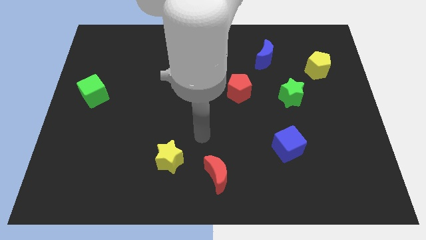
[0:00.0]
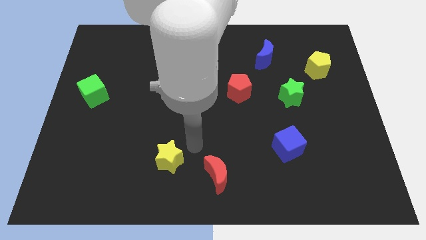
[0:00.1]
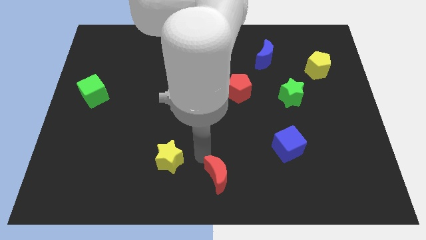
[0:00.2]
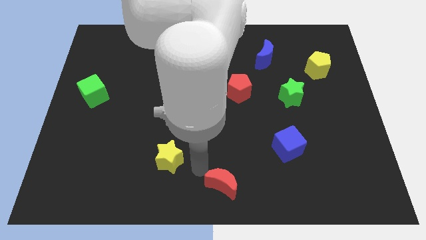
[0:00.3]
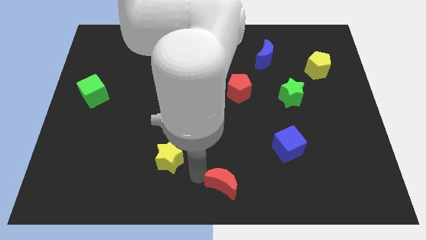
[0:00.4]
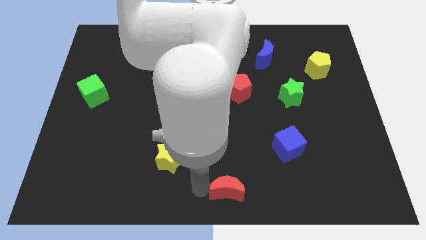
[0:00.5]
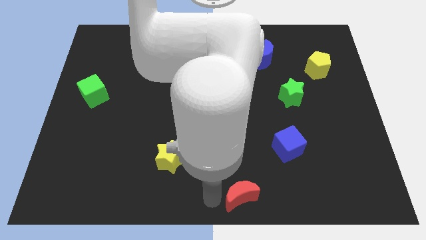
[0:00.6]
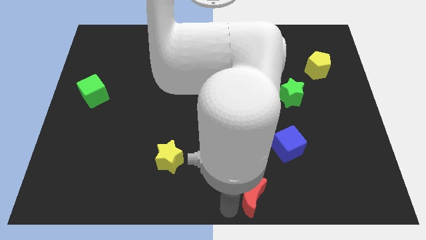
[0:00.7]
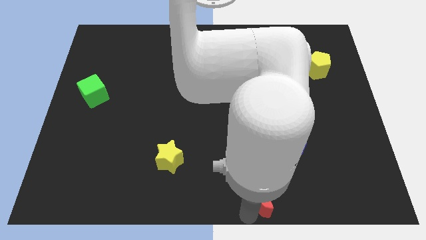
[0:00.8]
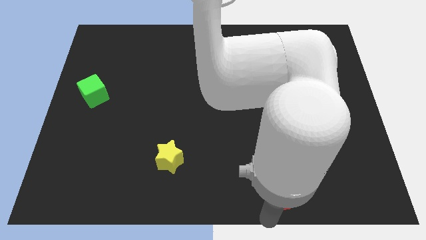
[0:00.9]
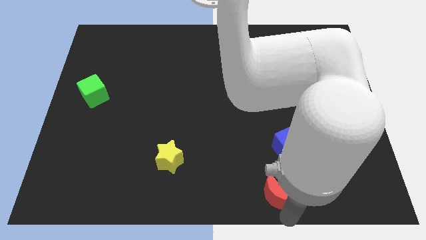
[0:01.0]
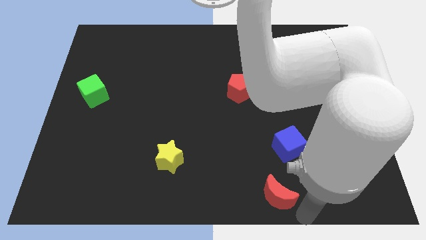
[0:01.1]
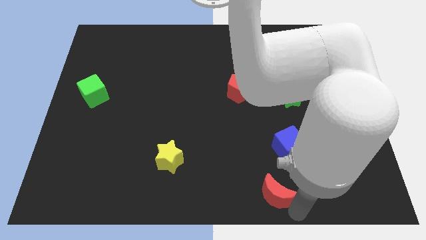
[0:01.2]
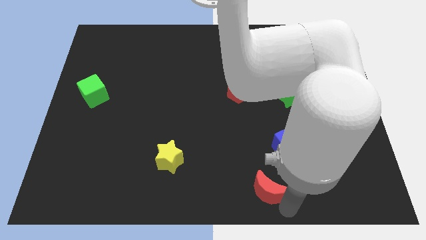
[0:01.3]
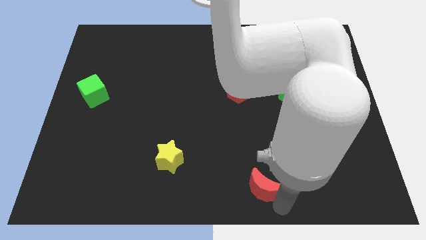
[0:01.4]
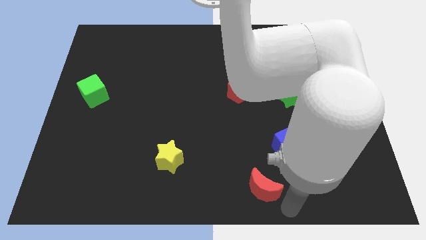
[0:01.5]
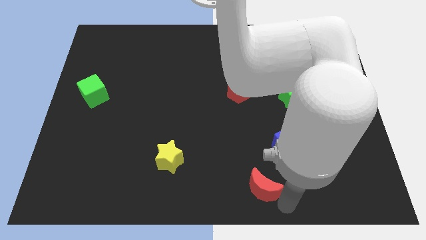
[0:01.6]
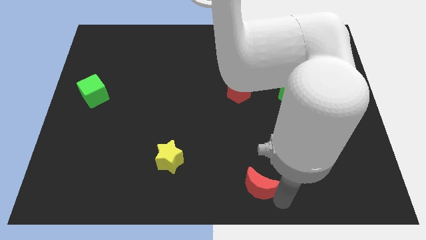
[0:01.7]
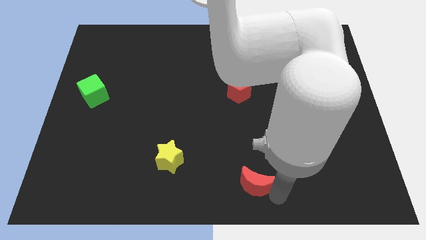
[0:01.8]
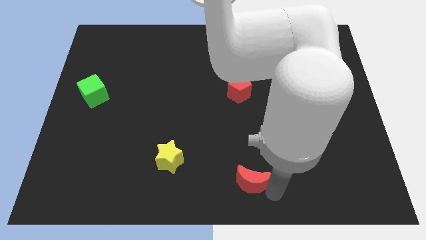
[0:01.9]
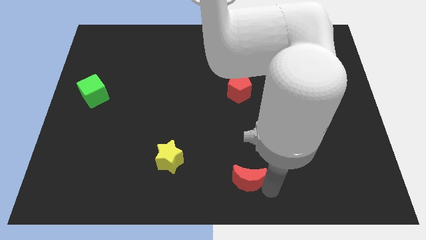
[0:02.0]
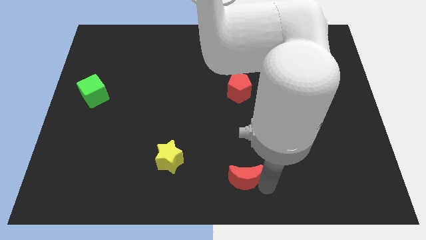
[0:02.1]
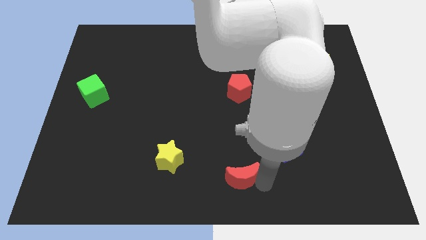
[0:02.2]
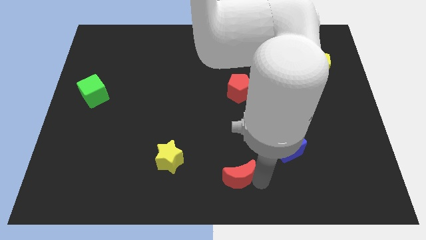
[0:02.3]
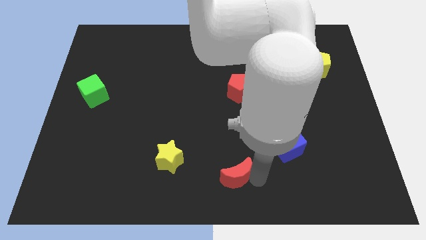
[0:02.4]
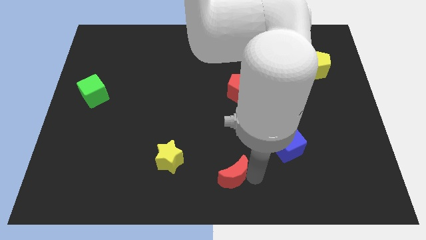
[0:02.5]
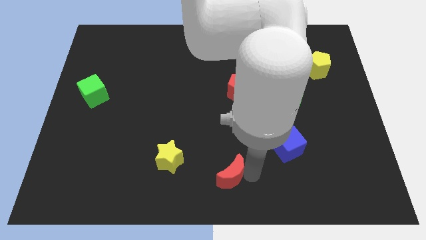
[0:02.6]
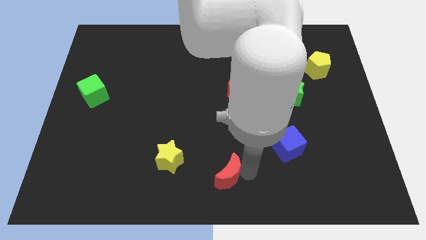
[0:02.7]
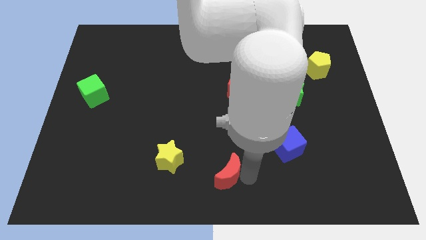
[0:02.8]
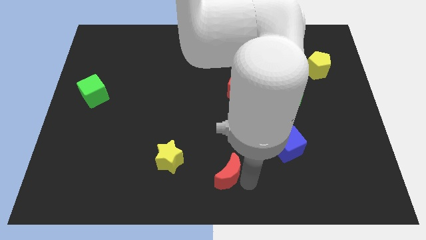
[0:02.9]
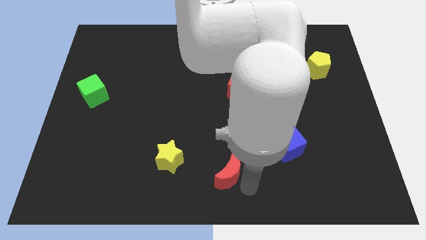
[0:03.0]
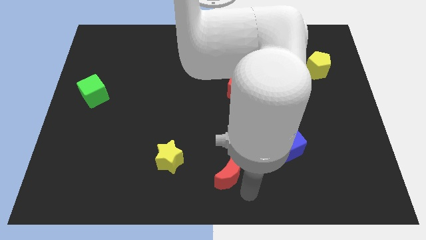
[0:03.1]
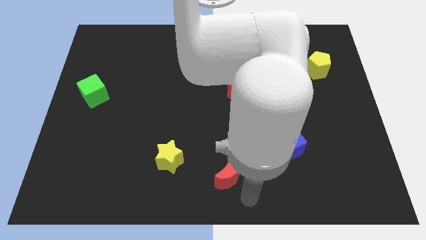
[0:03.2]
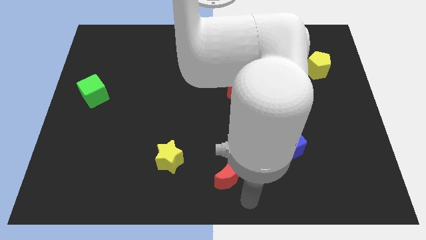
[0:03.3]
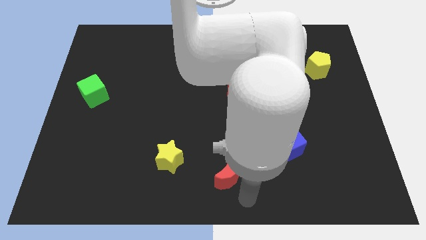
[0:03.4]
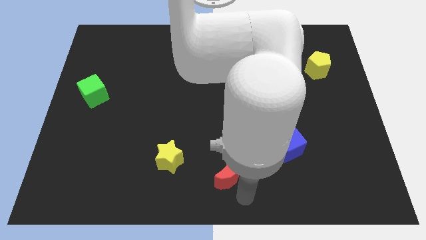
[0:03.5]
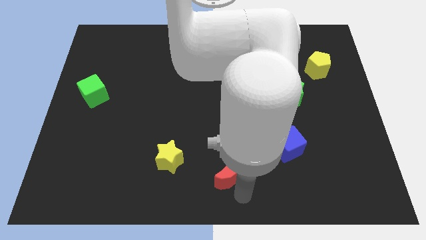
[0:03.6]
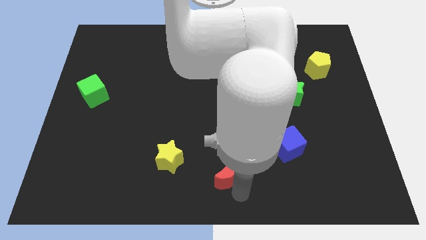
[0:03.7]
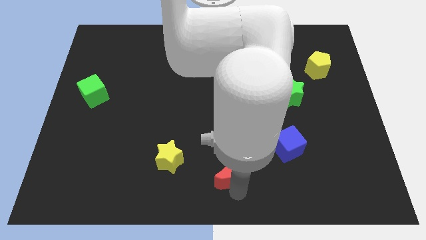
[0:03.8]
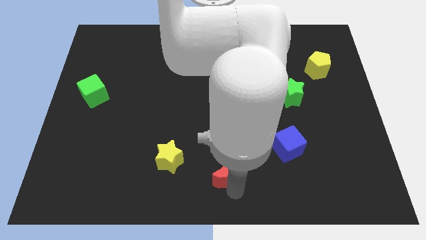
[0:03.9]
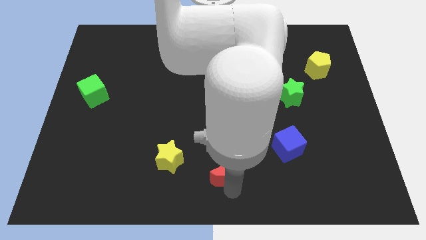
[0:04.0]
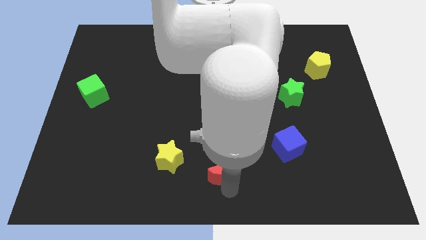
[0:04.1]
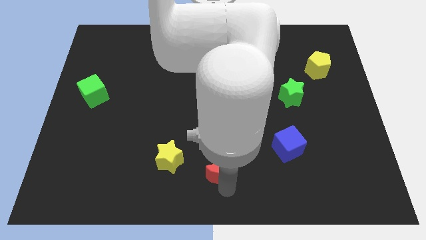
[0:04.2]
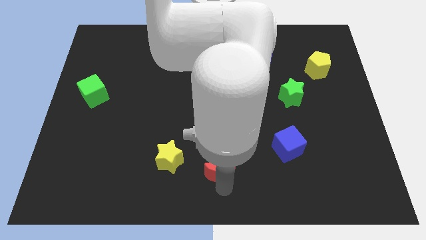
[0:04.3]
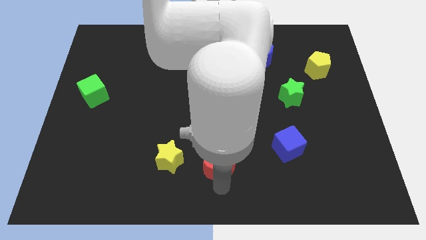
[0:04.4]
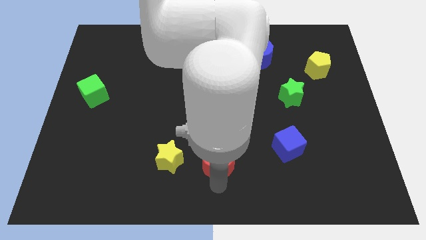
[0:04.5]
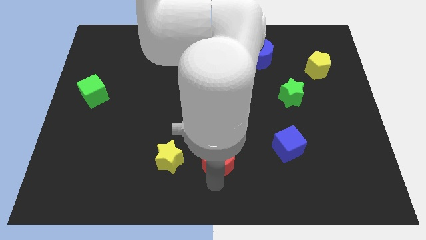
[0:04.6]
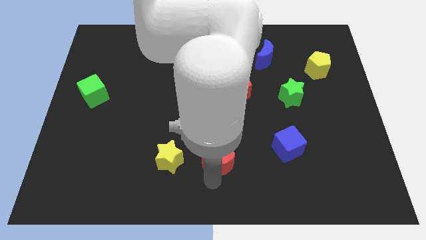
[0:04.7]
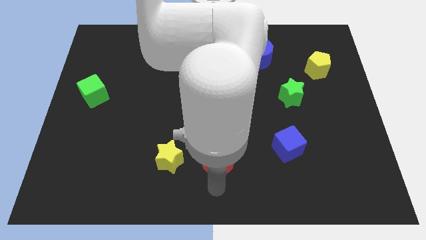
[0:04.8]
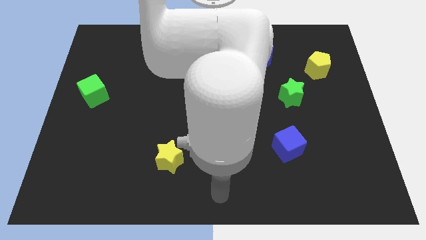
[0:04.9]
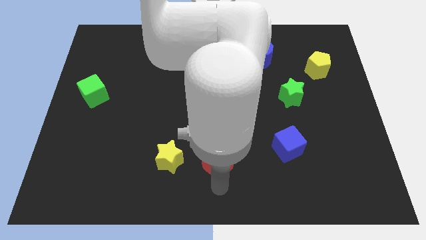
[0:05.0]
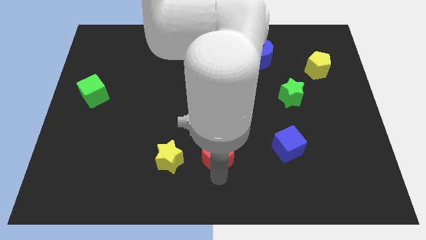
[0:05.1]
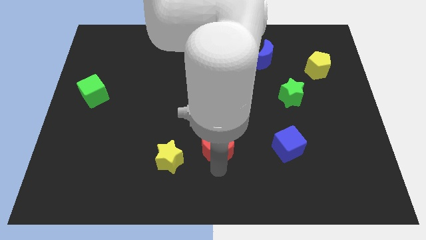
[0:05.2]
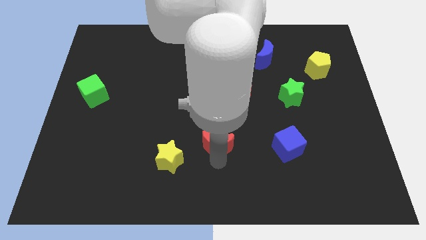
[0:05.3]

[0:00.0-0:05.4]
slide the red moon a bit upwards

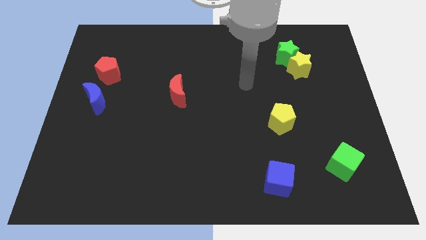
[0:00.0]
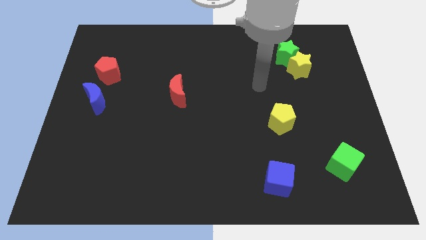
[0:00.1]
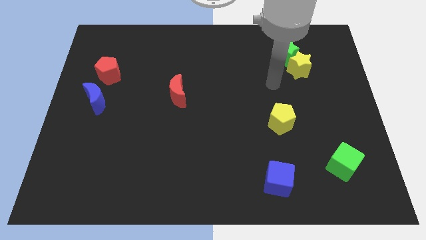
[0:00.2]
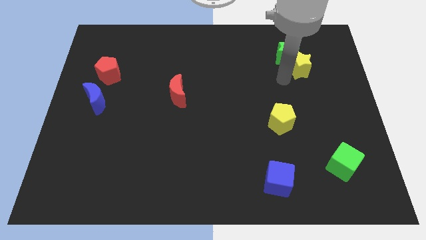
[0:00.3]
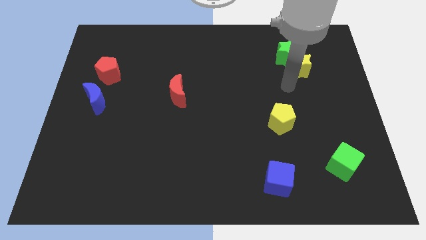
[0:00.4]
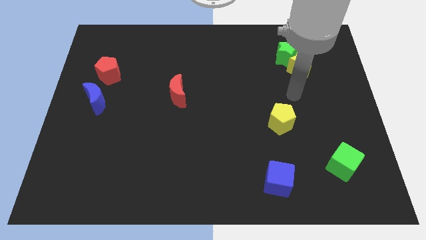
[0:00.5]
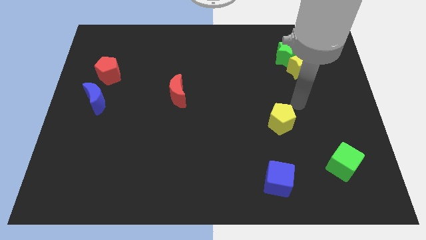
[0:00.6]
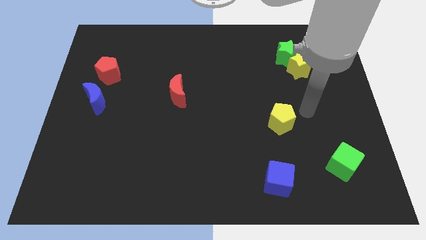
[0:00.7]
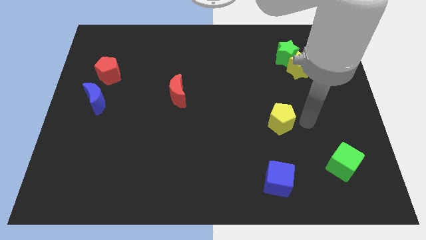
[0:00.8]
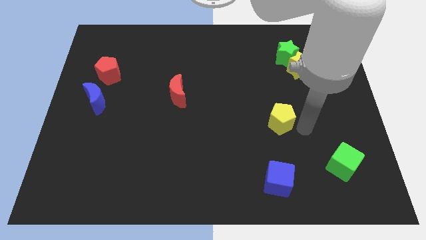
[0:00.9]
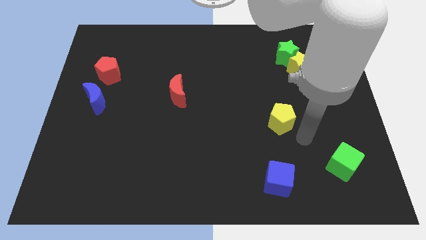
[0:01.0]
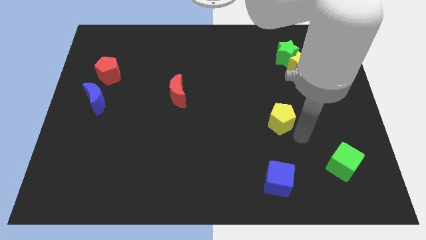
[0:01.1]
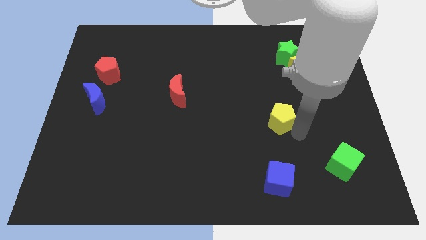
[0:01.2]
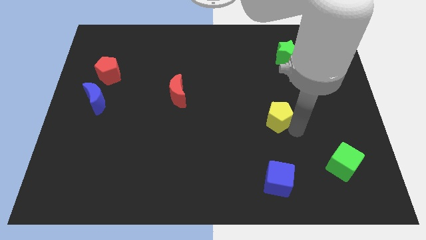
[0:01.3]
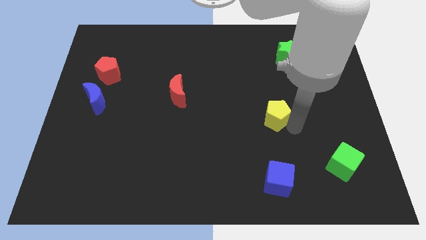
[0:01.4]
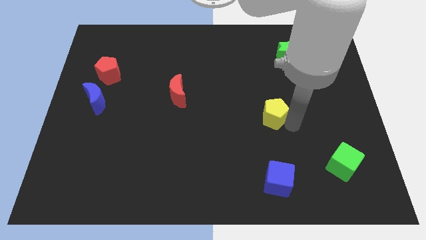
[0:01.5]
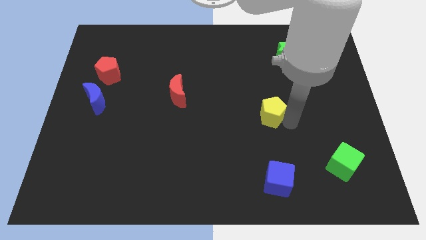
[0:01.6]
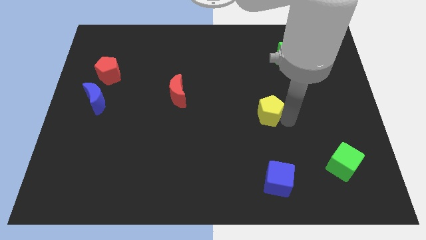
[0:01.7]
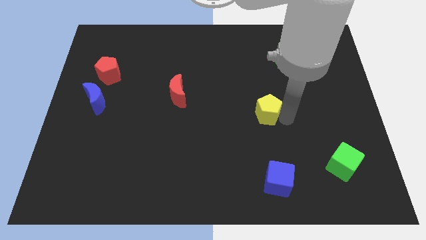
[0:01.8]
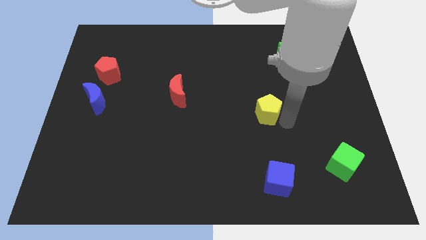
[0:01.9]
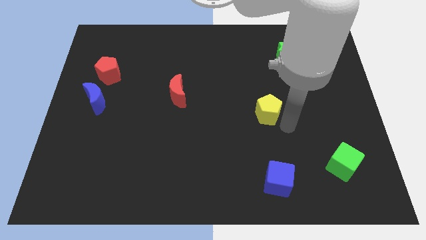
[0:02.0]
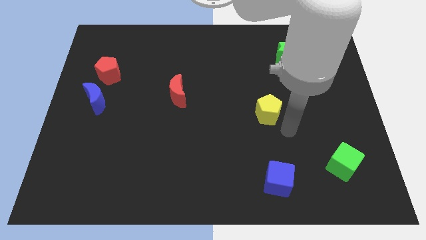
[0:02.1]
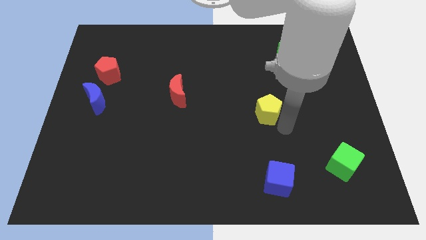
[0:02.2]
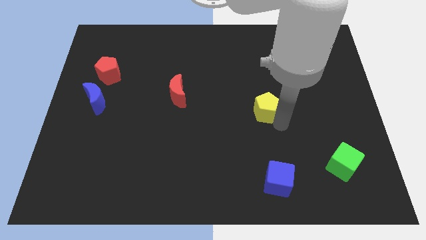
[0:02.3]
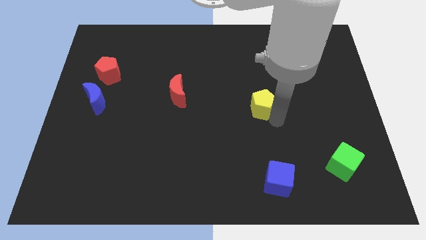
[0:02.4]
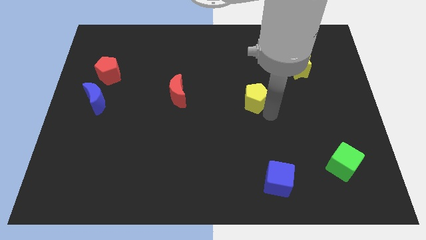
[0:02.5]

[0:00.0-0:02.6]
move the yellow pentagon a little bit diagonally upwards and left
